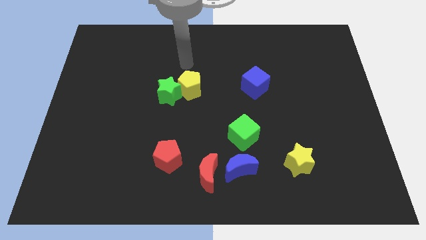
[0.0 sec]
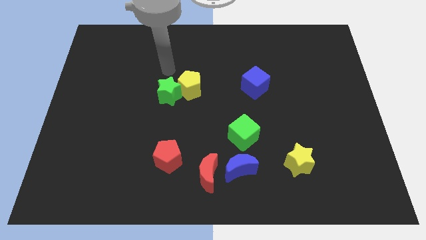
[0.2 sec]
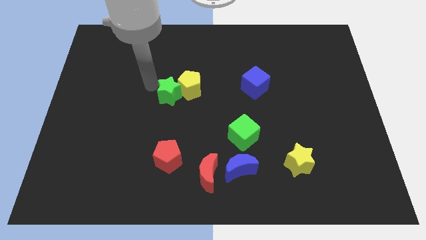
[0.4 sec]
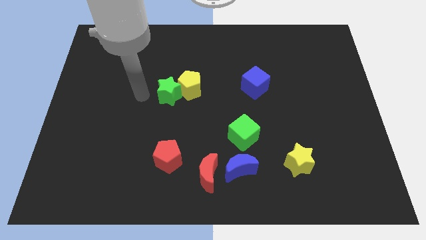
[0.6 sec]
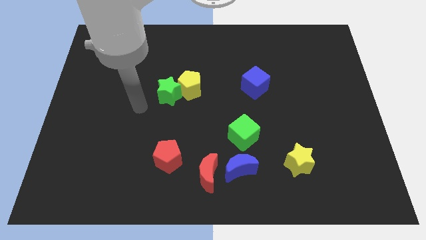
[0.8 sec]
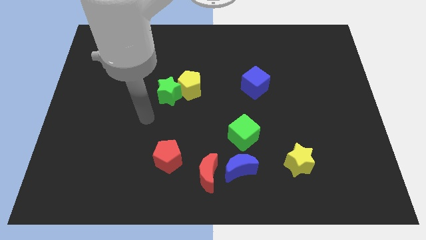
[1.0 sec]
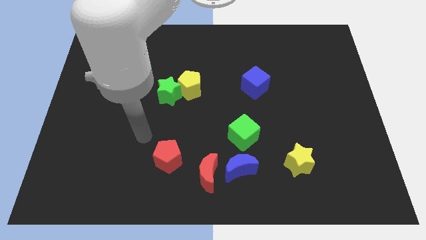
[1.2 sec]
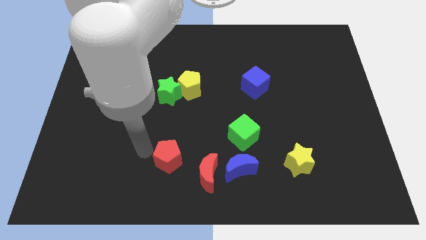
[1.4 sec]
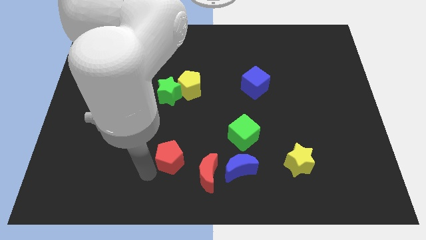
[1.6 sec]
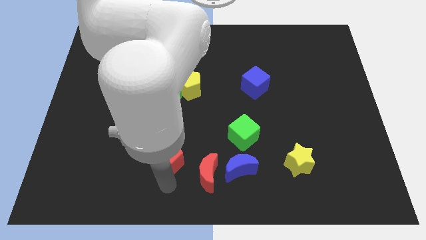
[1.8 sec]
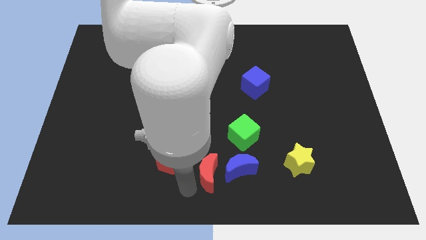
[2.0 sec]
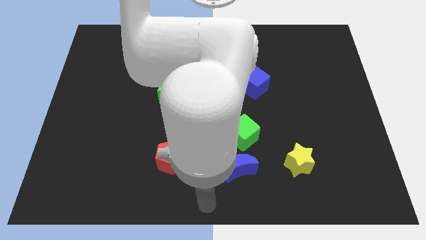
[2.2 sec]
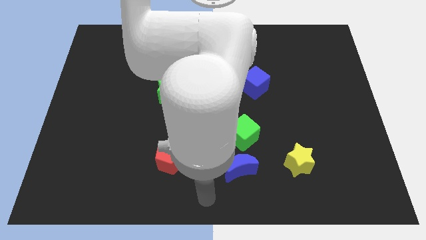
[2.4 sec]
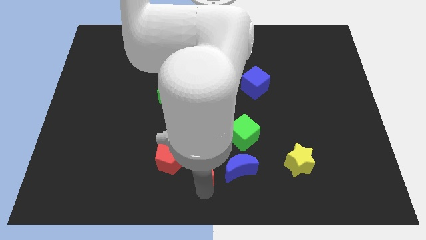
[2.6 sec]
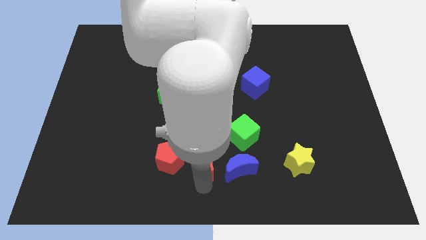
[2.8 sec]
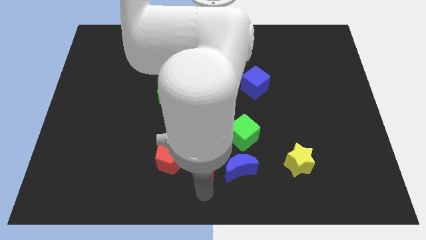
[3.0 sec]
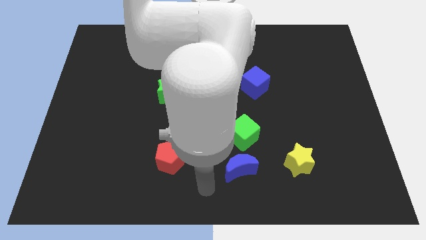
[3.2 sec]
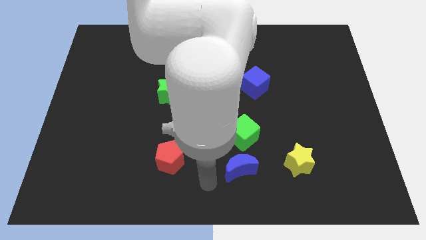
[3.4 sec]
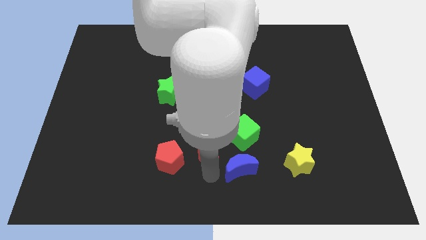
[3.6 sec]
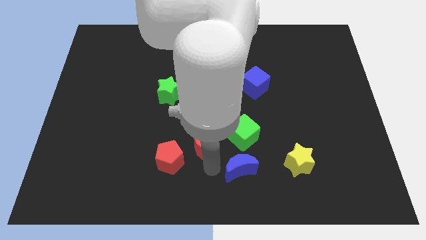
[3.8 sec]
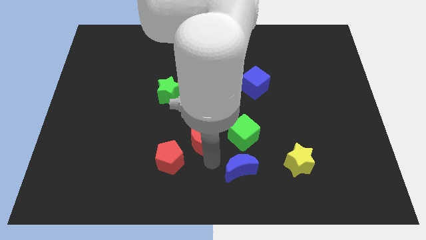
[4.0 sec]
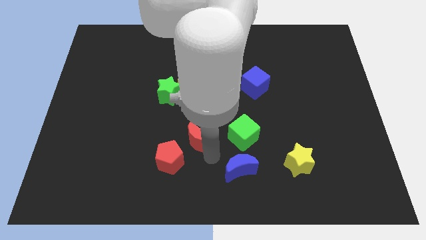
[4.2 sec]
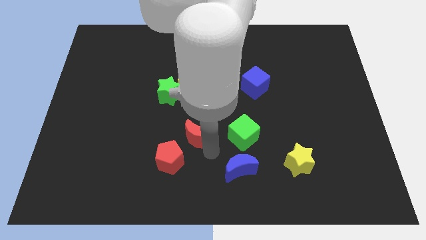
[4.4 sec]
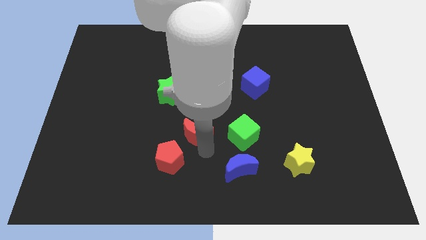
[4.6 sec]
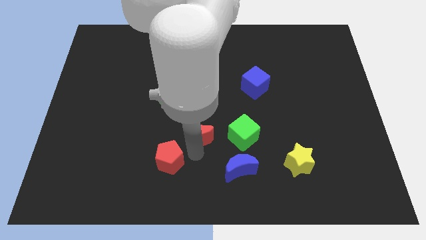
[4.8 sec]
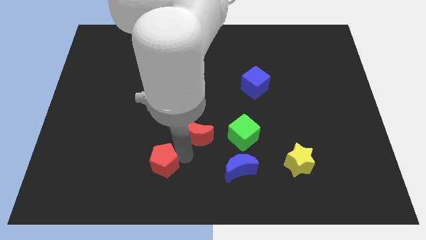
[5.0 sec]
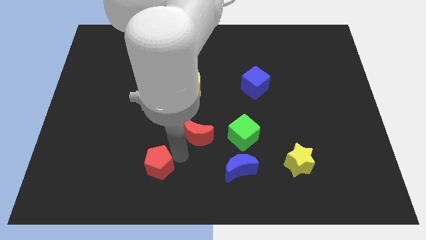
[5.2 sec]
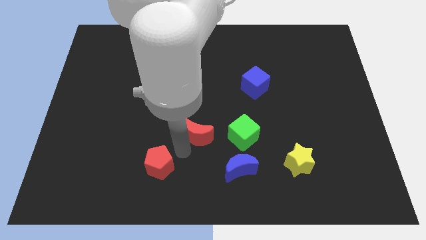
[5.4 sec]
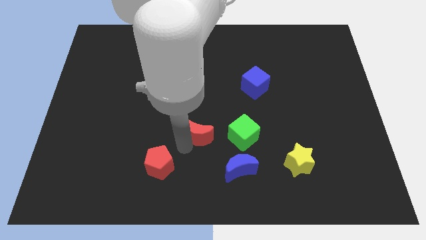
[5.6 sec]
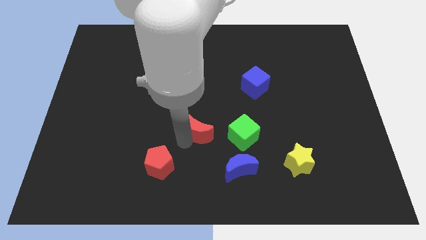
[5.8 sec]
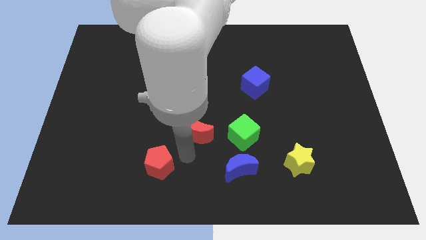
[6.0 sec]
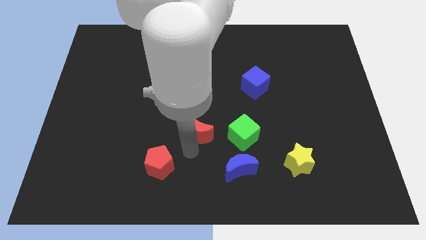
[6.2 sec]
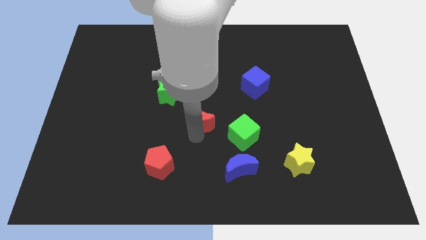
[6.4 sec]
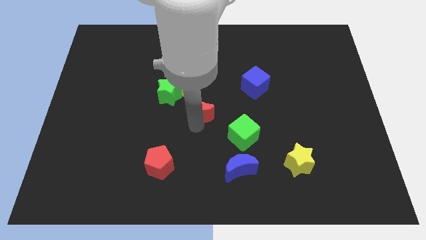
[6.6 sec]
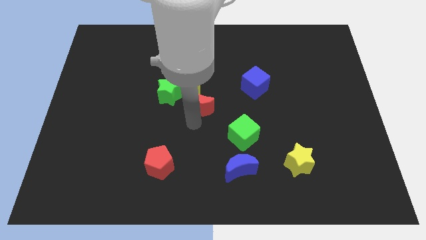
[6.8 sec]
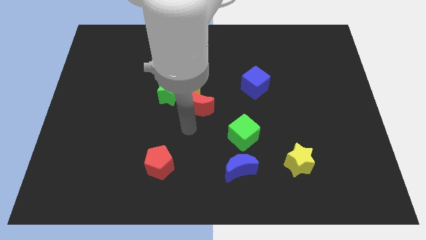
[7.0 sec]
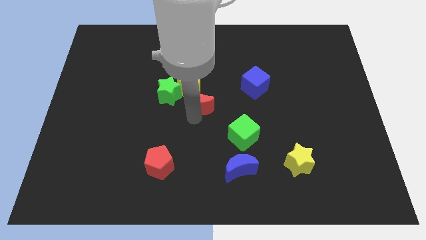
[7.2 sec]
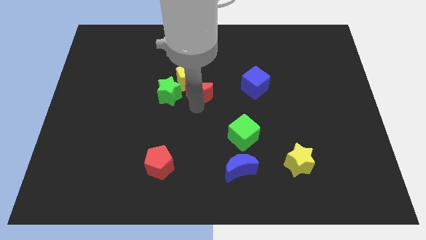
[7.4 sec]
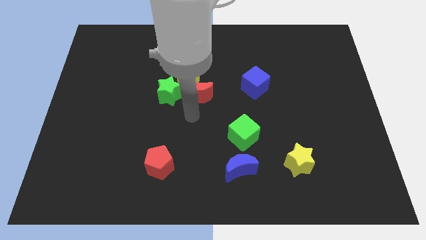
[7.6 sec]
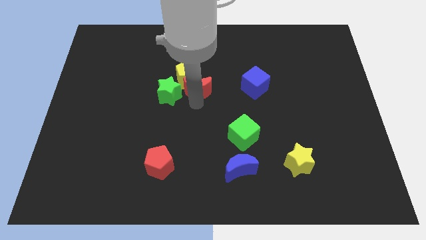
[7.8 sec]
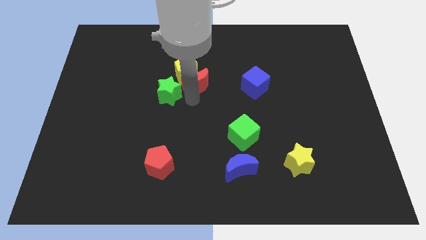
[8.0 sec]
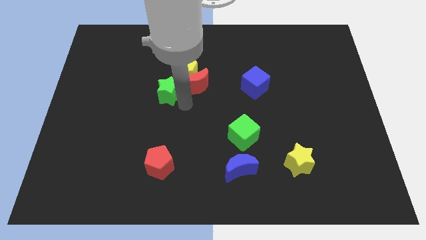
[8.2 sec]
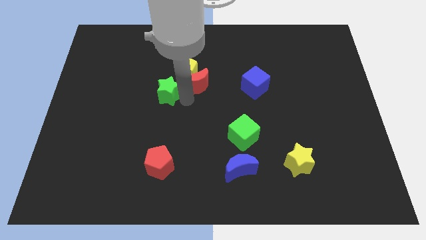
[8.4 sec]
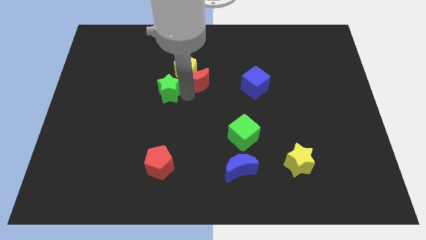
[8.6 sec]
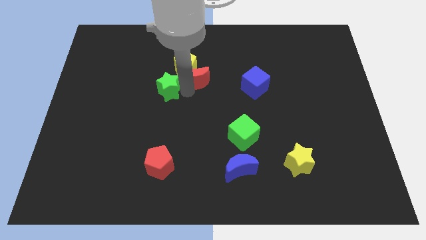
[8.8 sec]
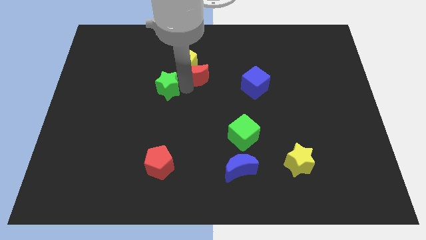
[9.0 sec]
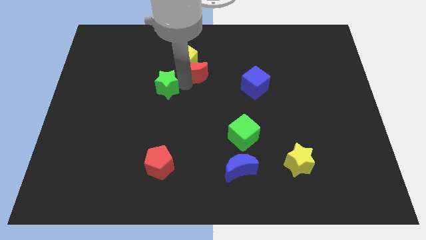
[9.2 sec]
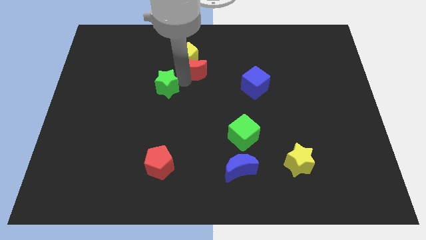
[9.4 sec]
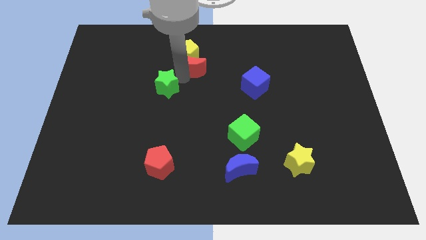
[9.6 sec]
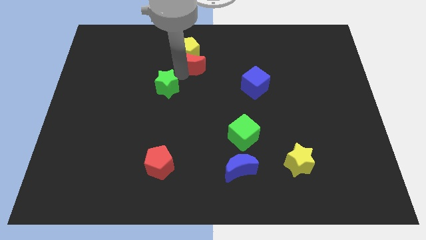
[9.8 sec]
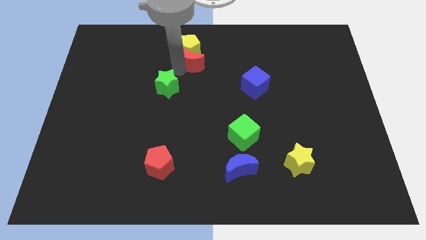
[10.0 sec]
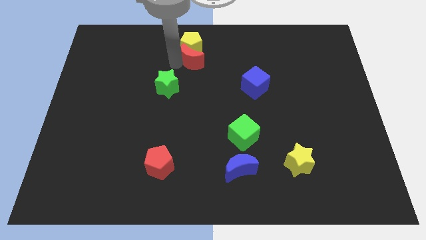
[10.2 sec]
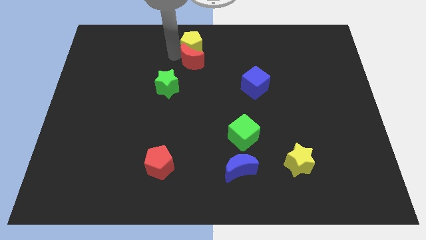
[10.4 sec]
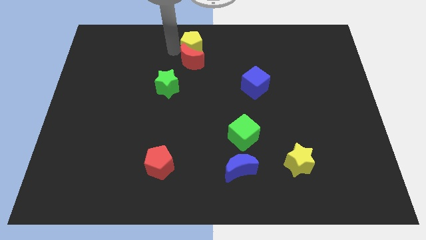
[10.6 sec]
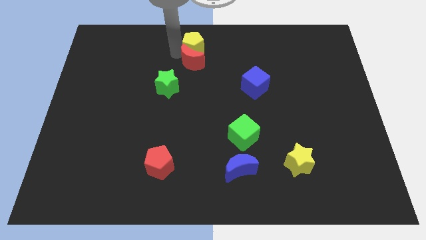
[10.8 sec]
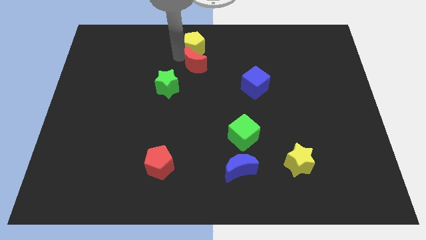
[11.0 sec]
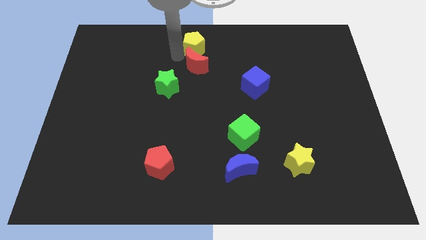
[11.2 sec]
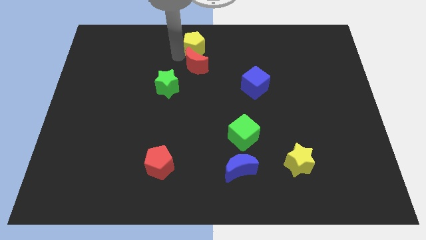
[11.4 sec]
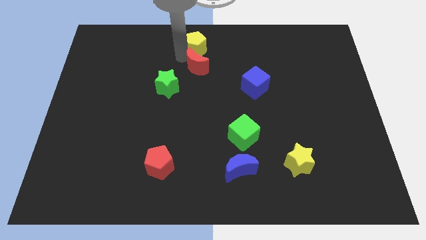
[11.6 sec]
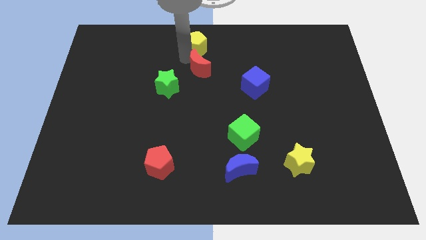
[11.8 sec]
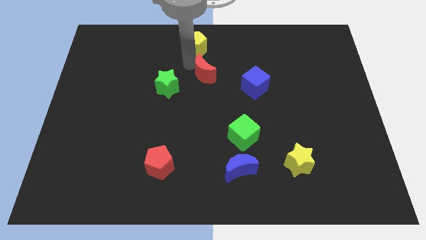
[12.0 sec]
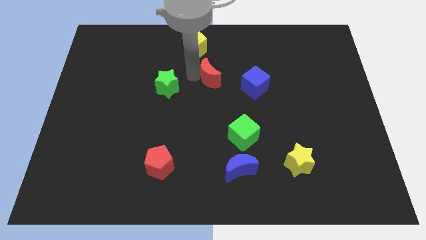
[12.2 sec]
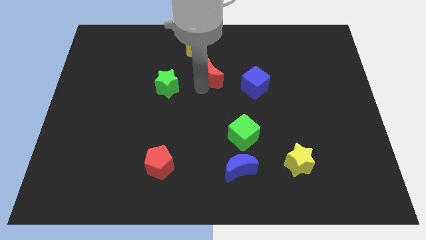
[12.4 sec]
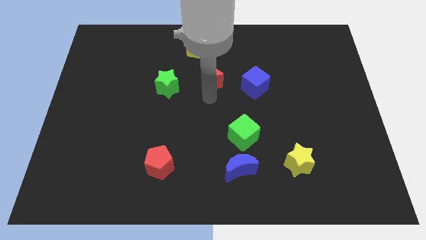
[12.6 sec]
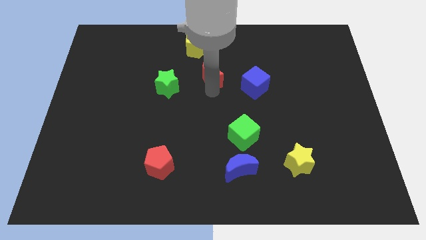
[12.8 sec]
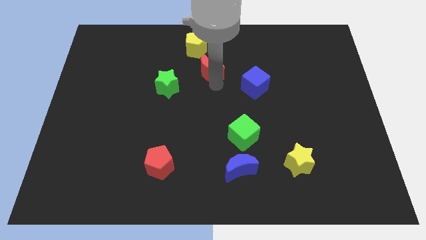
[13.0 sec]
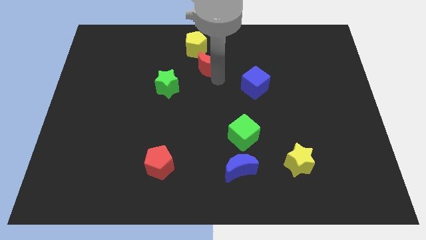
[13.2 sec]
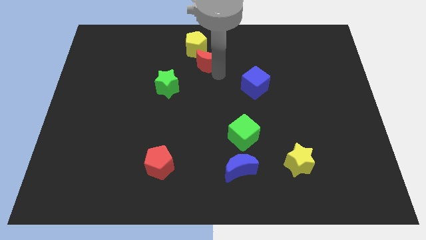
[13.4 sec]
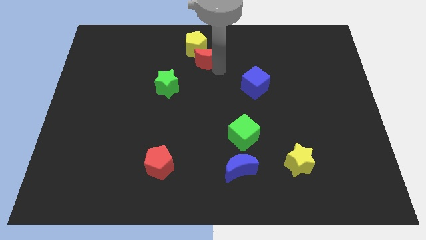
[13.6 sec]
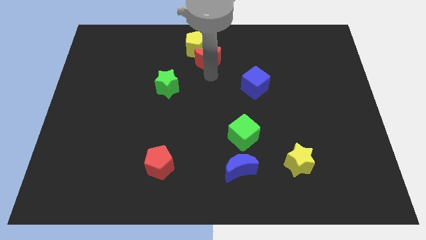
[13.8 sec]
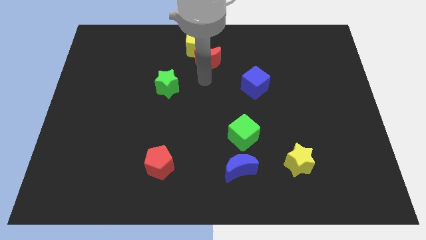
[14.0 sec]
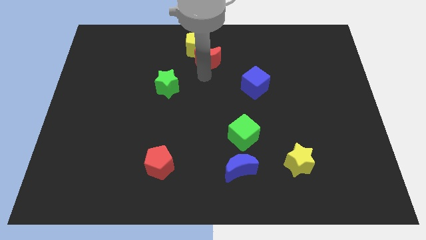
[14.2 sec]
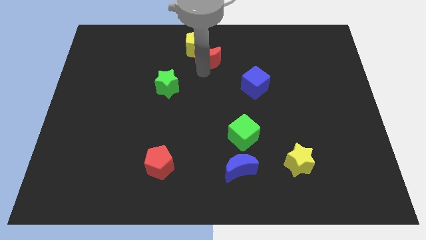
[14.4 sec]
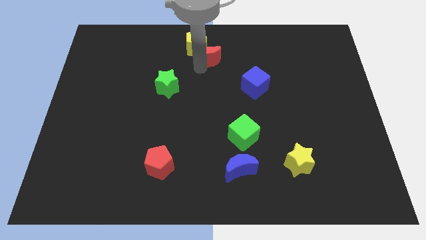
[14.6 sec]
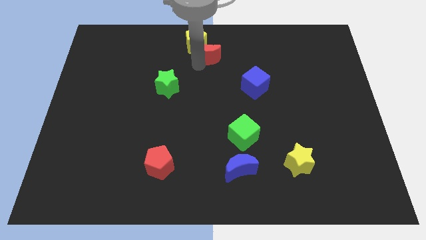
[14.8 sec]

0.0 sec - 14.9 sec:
move the red moon to the towards your base
